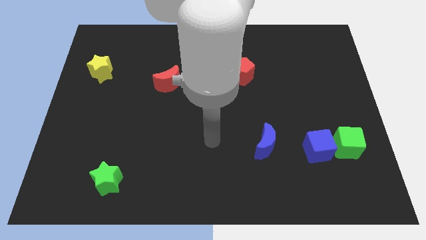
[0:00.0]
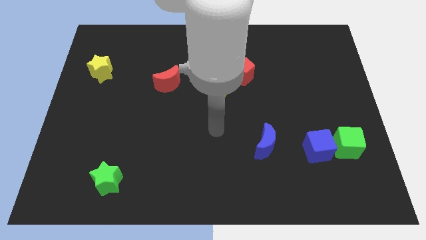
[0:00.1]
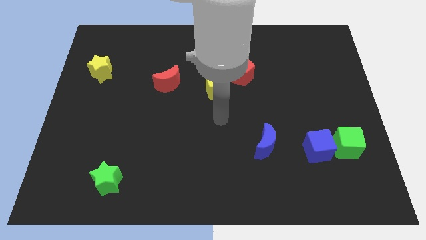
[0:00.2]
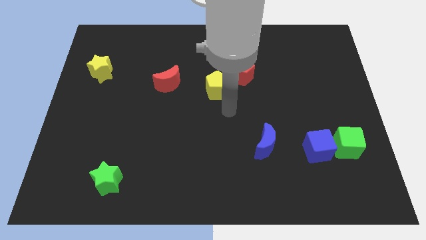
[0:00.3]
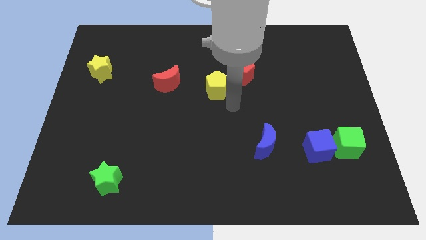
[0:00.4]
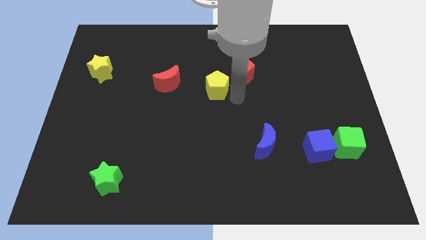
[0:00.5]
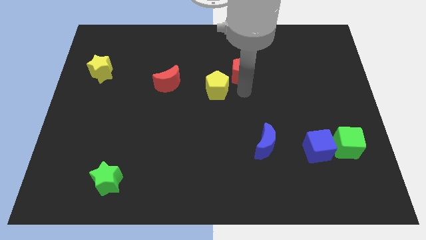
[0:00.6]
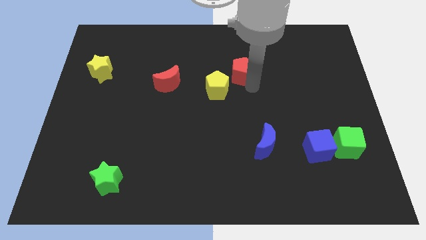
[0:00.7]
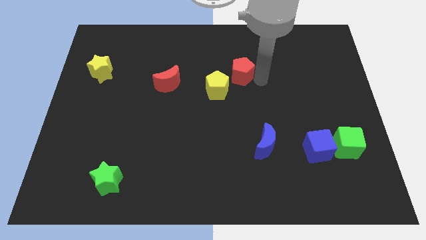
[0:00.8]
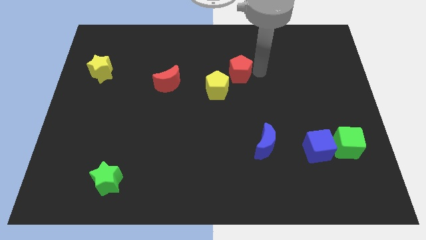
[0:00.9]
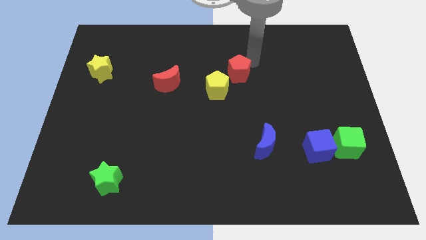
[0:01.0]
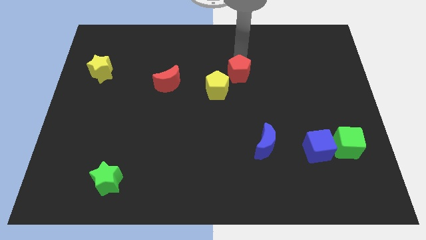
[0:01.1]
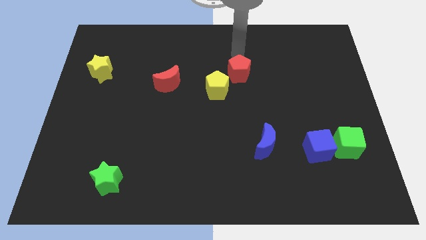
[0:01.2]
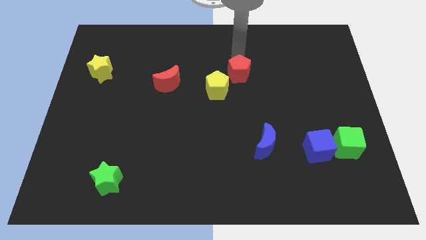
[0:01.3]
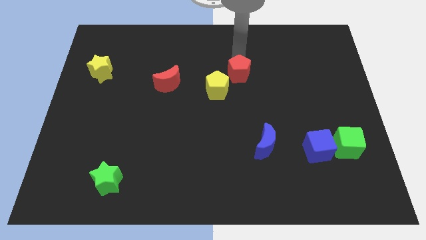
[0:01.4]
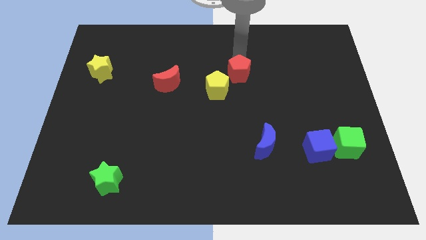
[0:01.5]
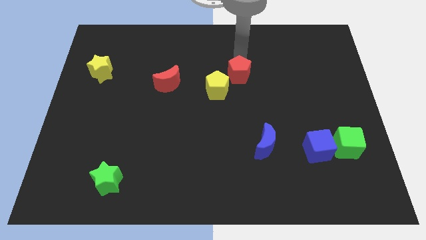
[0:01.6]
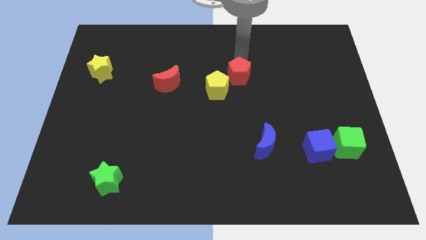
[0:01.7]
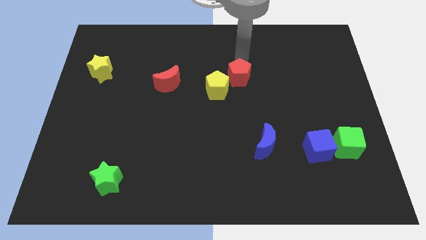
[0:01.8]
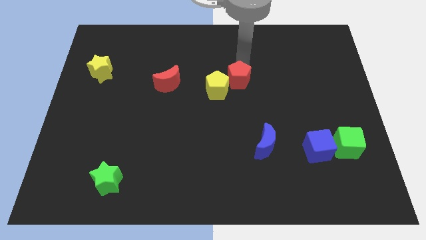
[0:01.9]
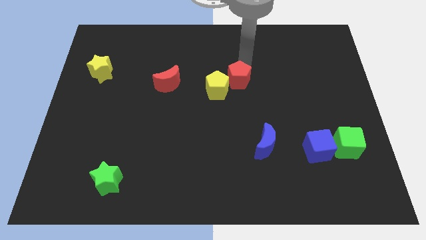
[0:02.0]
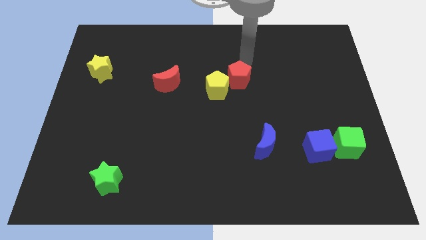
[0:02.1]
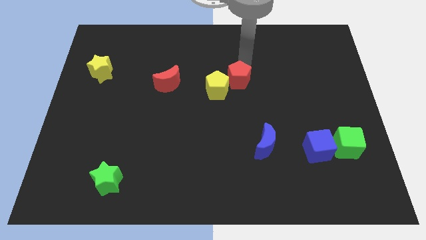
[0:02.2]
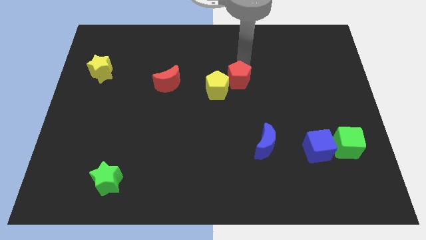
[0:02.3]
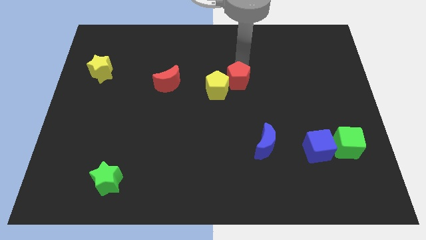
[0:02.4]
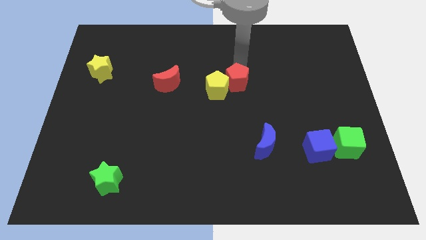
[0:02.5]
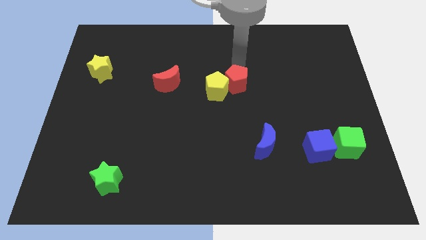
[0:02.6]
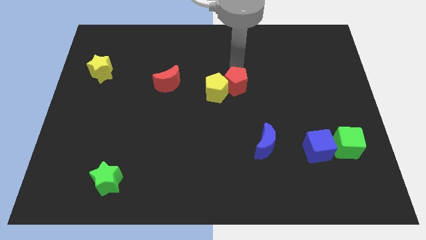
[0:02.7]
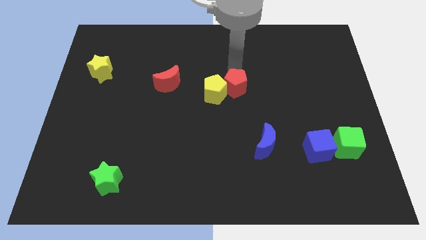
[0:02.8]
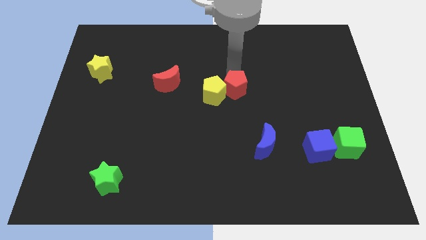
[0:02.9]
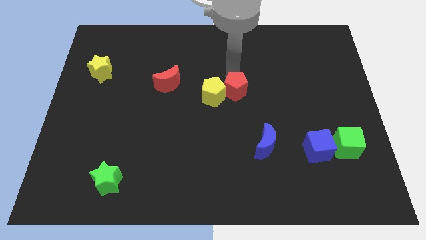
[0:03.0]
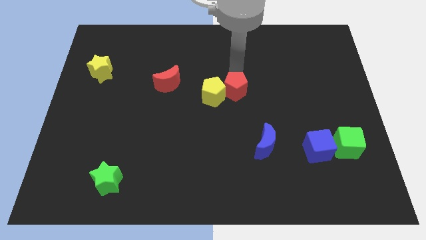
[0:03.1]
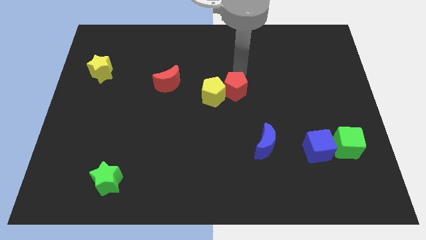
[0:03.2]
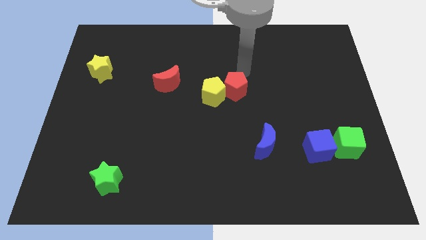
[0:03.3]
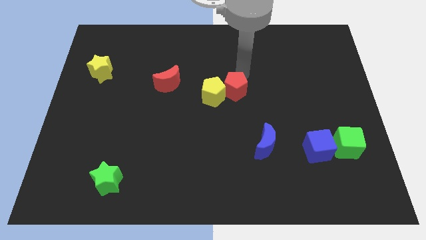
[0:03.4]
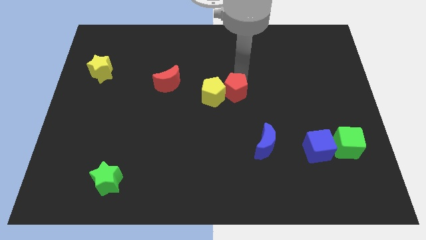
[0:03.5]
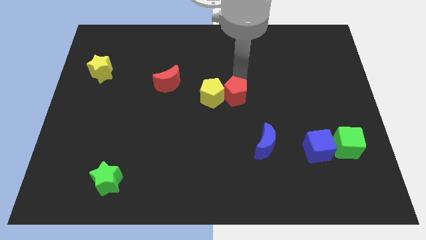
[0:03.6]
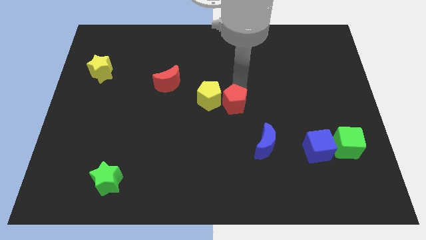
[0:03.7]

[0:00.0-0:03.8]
slightly slide the red pentagon down and left diagonally

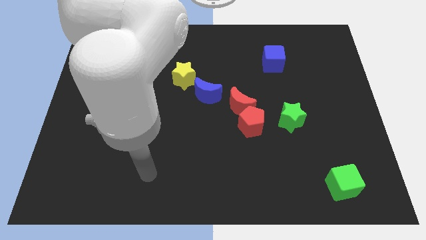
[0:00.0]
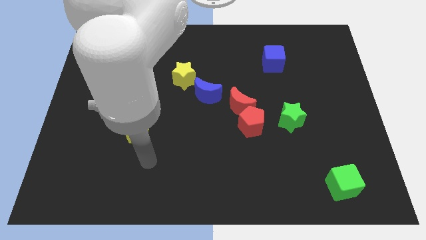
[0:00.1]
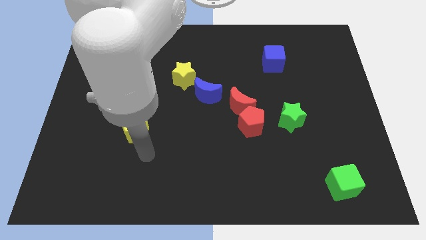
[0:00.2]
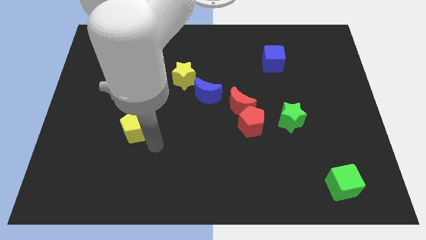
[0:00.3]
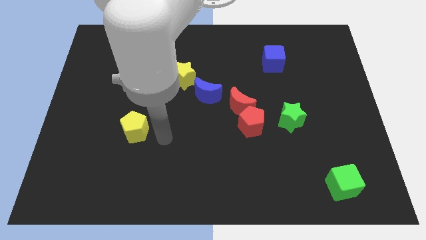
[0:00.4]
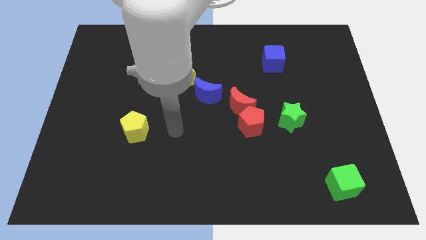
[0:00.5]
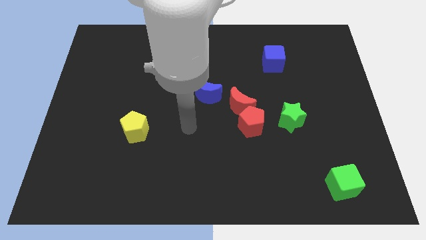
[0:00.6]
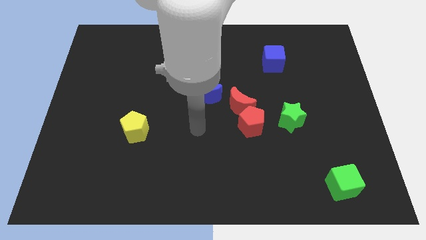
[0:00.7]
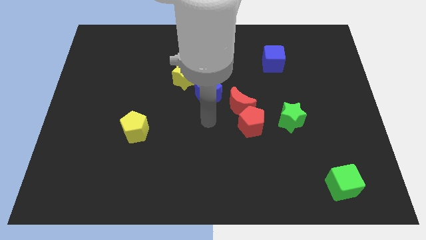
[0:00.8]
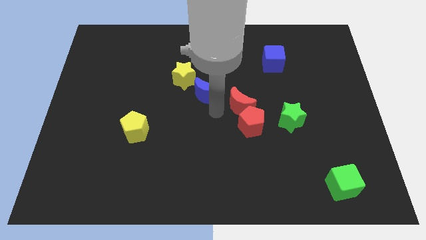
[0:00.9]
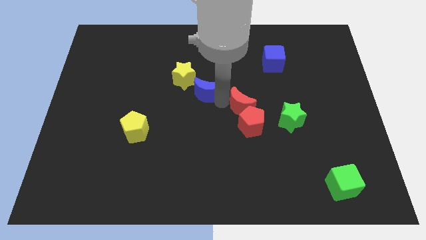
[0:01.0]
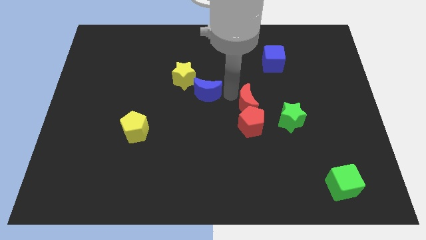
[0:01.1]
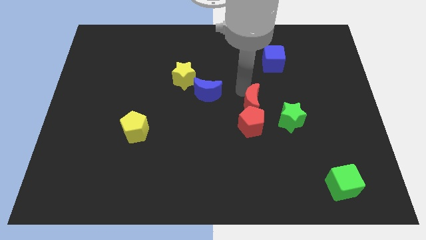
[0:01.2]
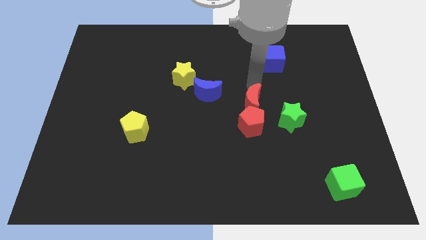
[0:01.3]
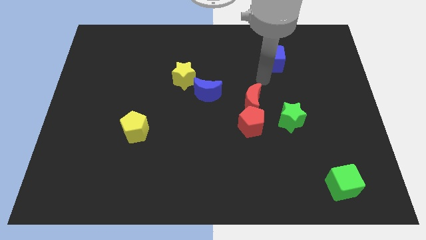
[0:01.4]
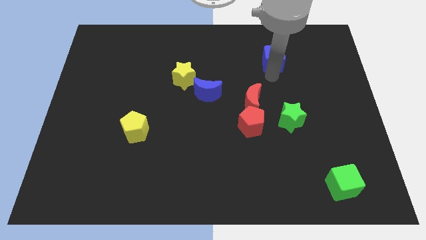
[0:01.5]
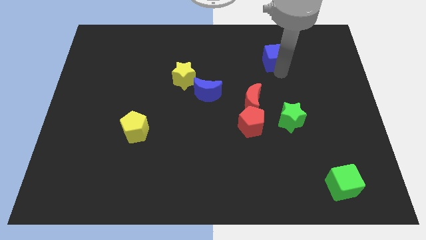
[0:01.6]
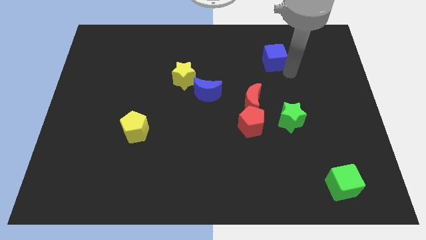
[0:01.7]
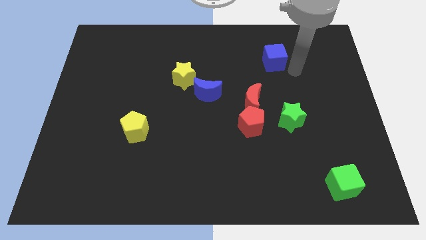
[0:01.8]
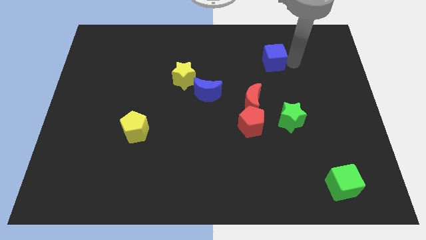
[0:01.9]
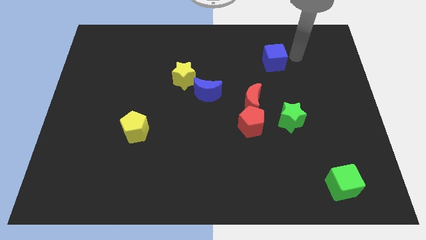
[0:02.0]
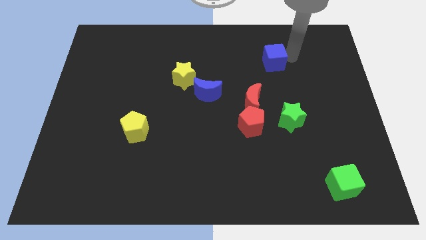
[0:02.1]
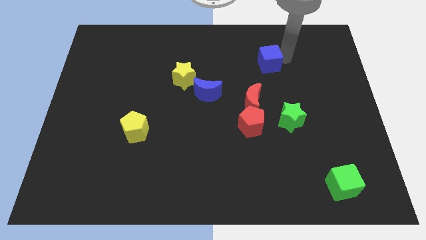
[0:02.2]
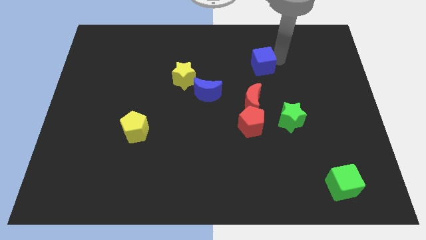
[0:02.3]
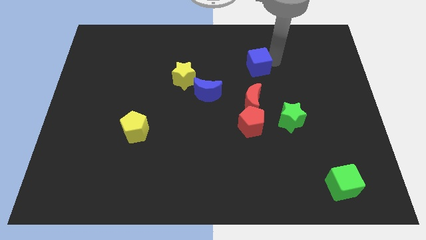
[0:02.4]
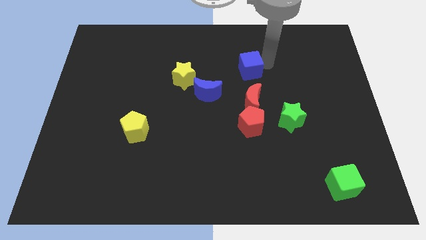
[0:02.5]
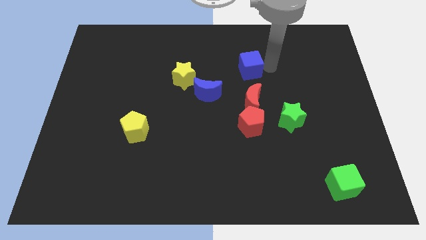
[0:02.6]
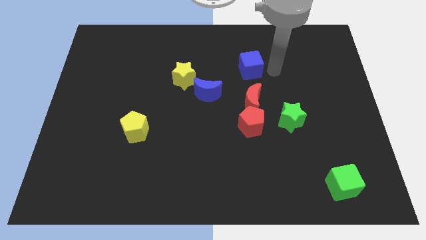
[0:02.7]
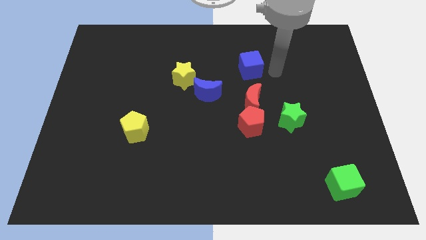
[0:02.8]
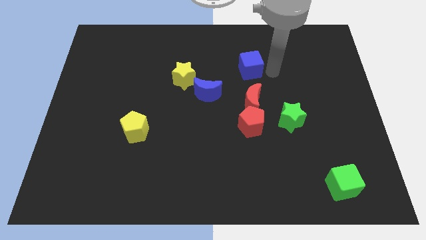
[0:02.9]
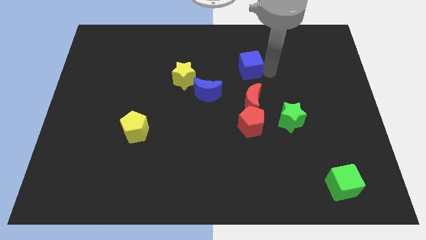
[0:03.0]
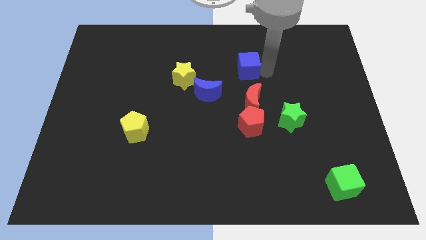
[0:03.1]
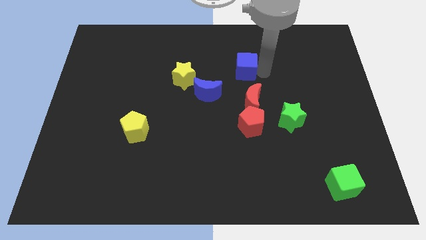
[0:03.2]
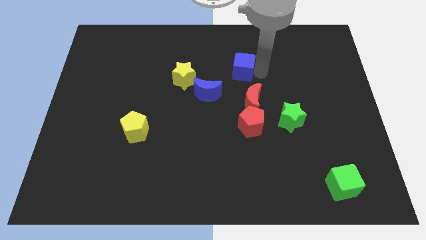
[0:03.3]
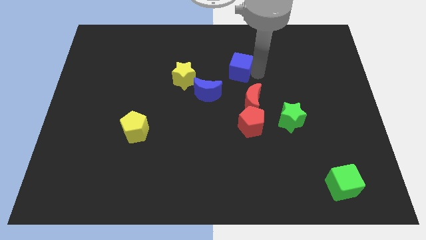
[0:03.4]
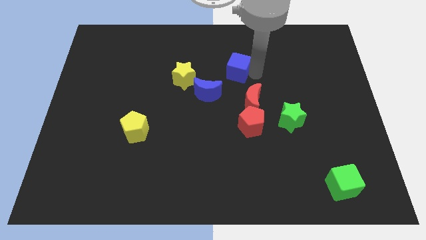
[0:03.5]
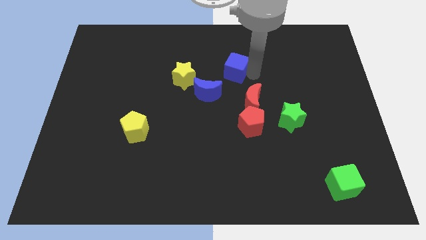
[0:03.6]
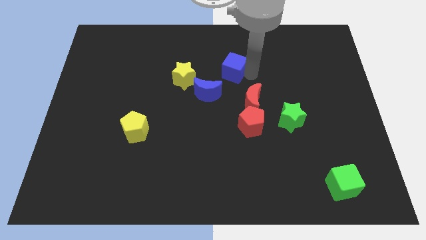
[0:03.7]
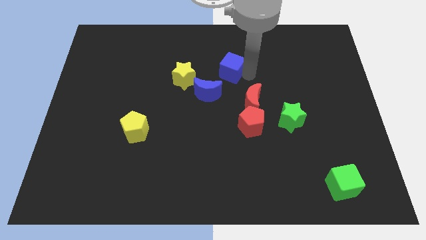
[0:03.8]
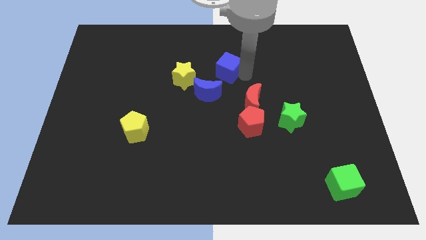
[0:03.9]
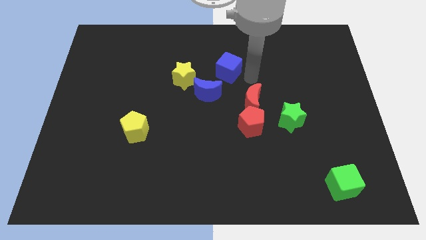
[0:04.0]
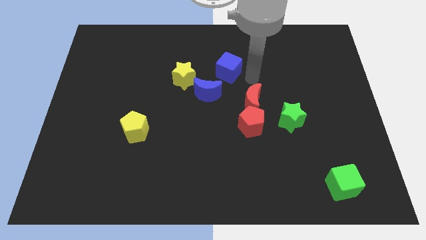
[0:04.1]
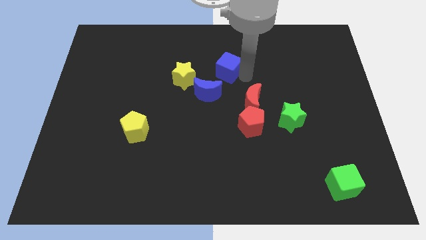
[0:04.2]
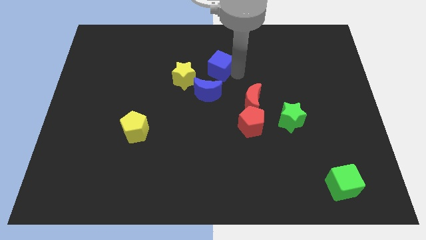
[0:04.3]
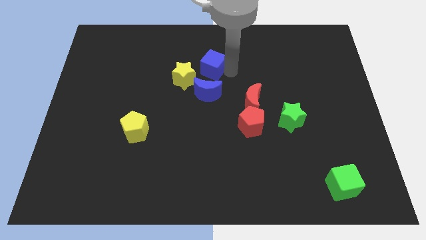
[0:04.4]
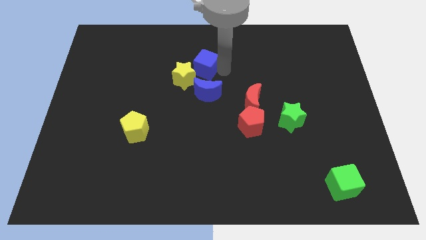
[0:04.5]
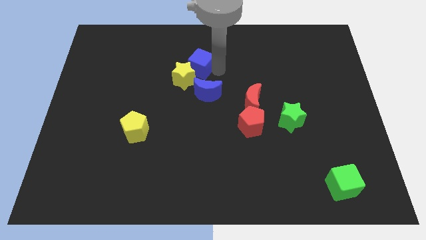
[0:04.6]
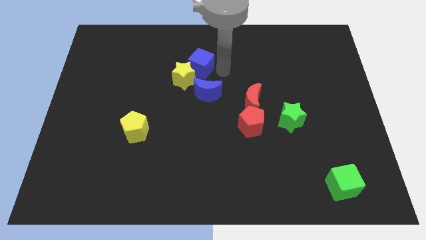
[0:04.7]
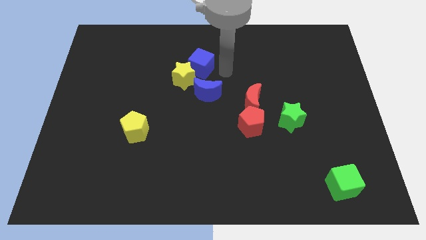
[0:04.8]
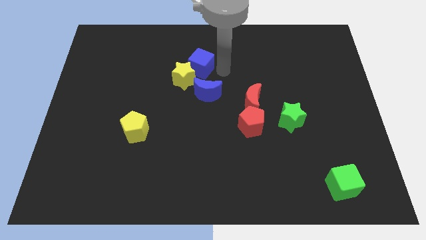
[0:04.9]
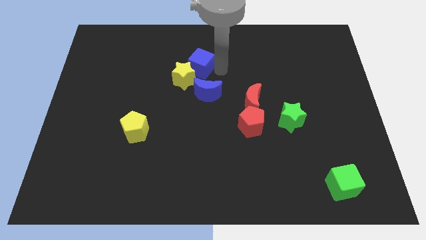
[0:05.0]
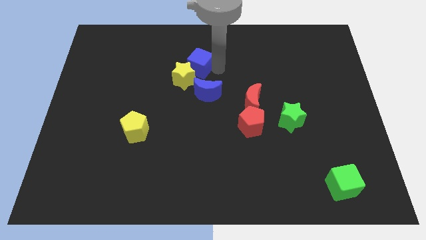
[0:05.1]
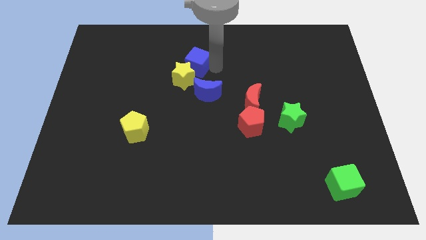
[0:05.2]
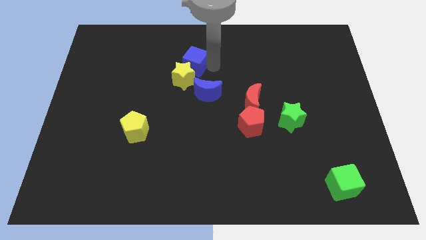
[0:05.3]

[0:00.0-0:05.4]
slide the blue cube to the left
